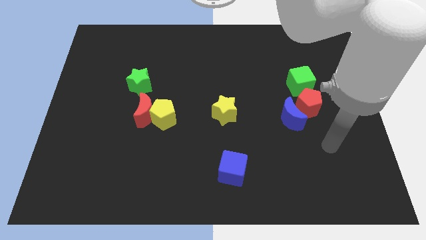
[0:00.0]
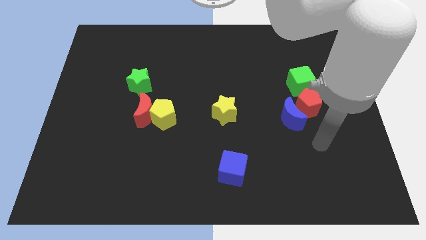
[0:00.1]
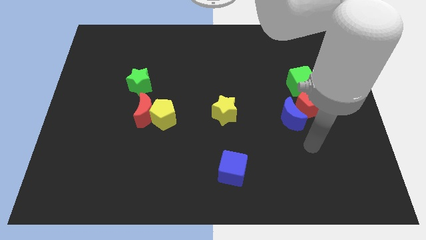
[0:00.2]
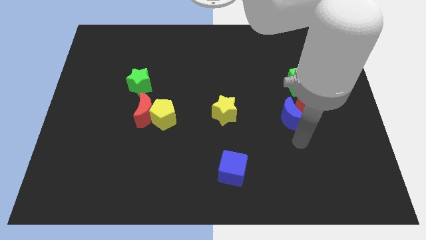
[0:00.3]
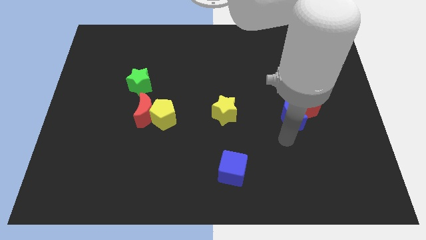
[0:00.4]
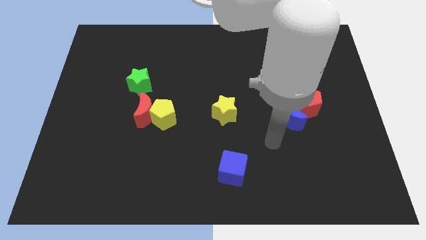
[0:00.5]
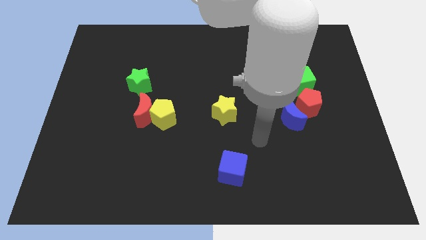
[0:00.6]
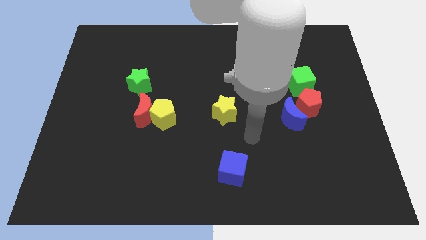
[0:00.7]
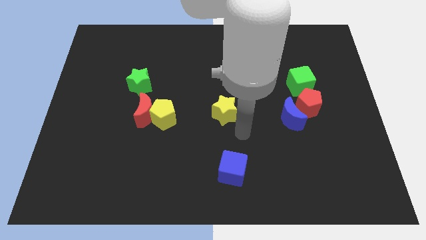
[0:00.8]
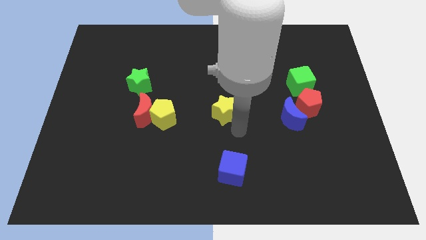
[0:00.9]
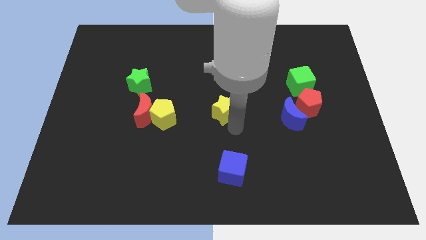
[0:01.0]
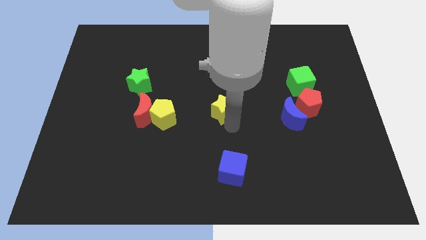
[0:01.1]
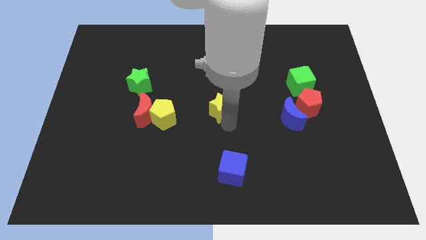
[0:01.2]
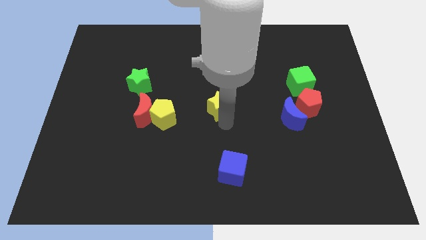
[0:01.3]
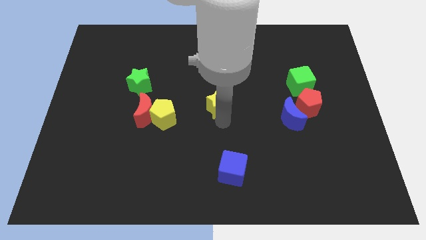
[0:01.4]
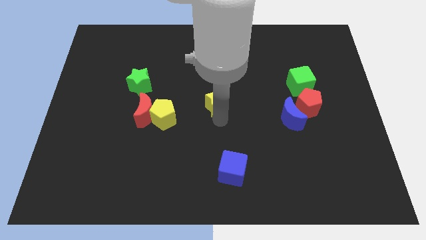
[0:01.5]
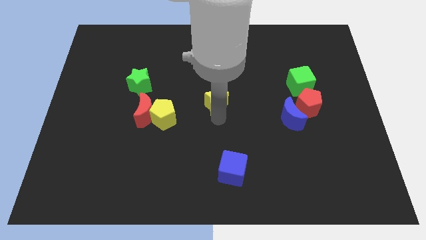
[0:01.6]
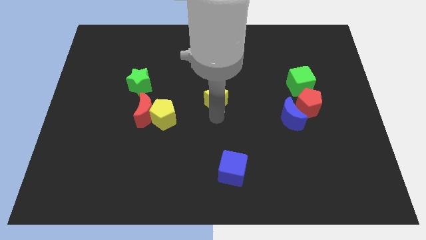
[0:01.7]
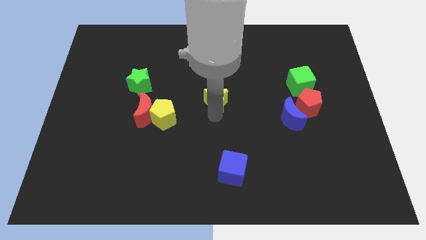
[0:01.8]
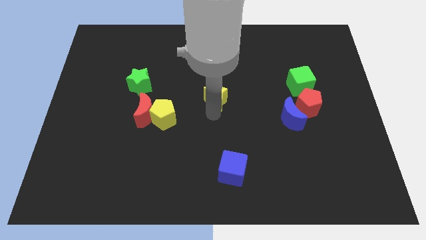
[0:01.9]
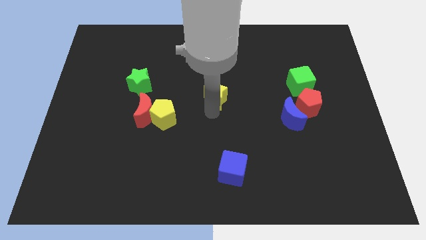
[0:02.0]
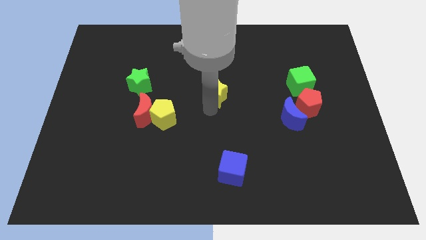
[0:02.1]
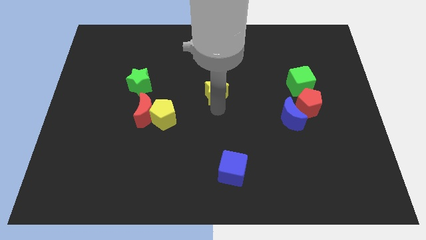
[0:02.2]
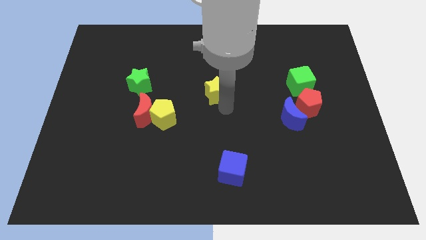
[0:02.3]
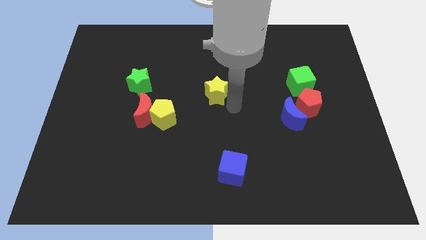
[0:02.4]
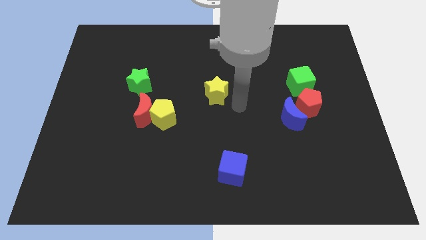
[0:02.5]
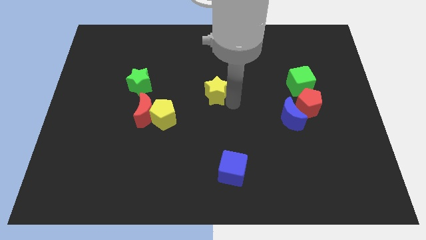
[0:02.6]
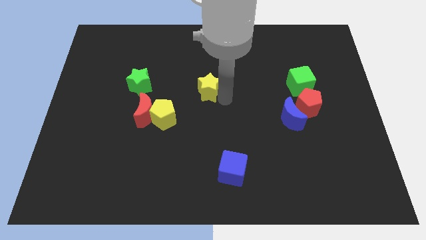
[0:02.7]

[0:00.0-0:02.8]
move the yellow star a little bit diagonally upwards and to the left

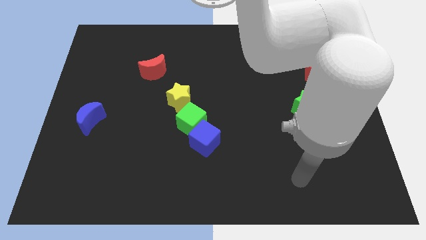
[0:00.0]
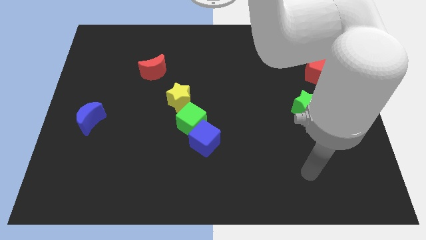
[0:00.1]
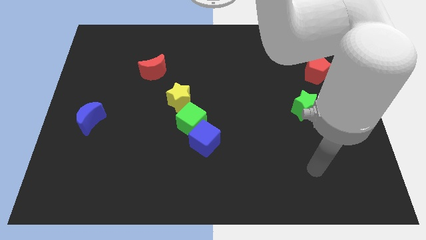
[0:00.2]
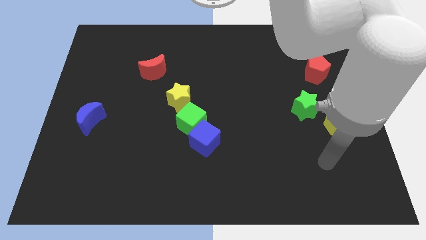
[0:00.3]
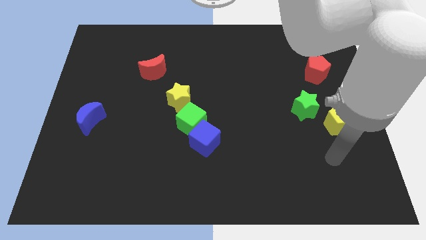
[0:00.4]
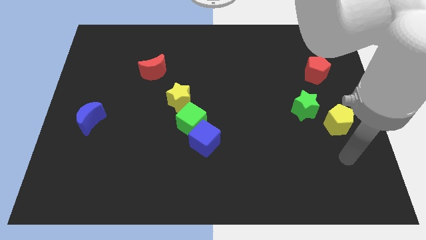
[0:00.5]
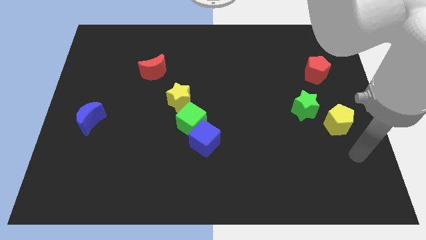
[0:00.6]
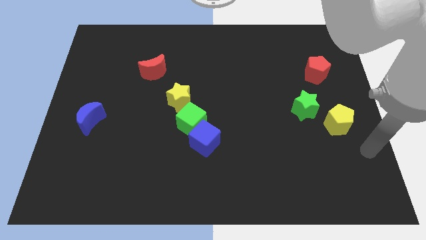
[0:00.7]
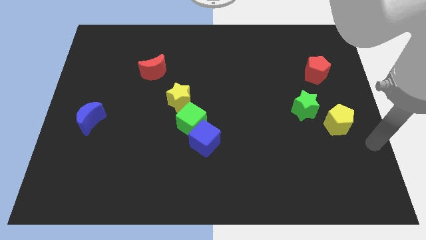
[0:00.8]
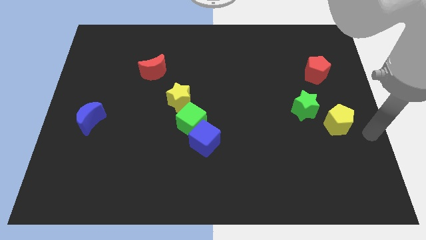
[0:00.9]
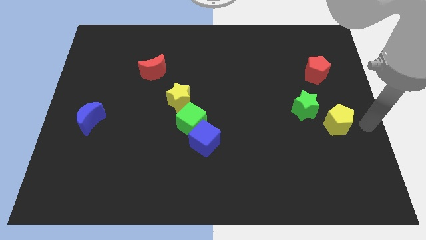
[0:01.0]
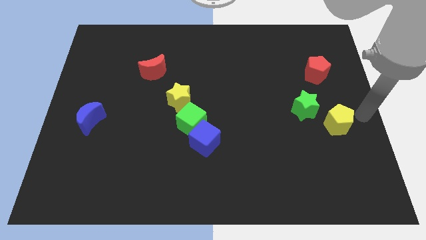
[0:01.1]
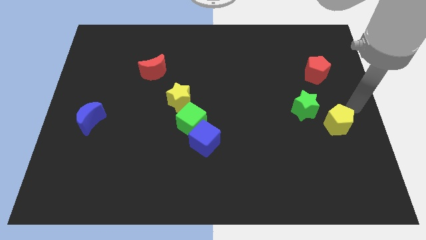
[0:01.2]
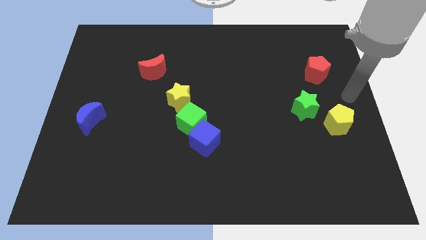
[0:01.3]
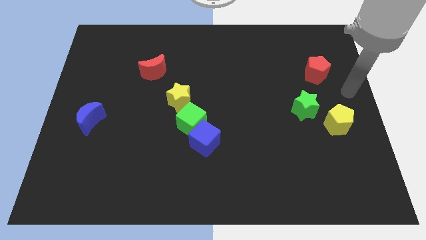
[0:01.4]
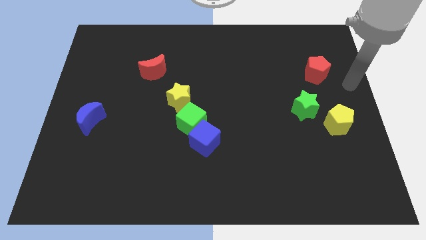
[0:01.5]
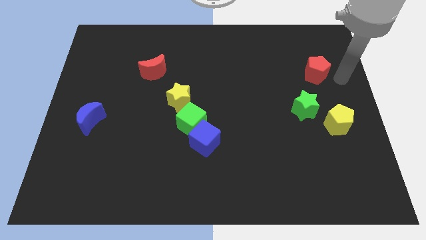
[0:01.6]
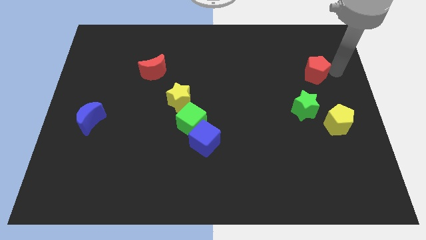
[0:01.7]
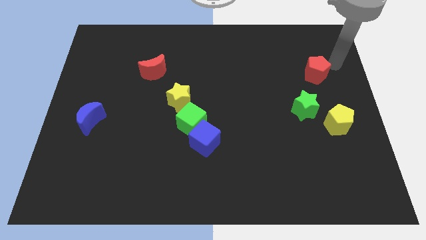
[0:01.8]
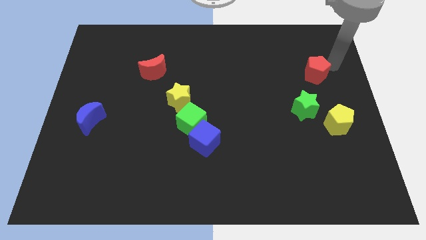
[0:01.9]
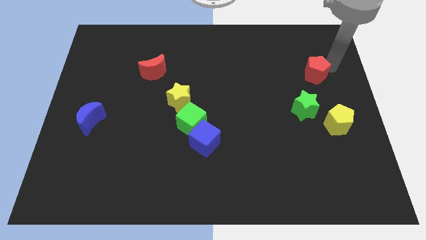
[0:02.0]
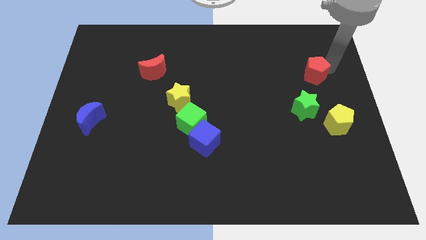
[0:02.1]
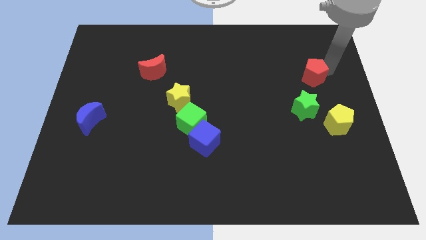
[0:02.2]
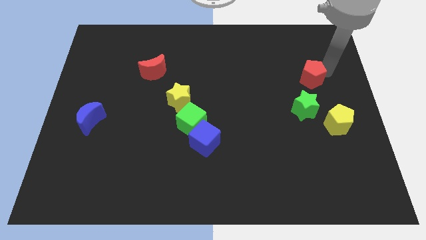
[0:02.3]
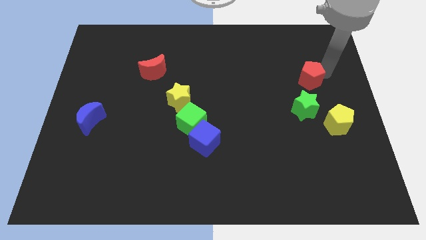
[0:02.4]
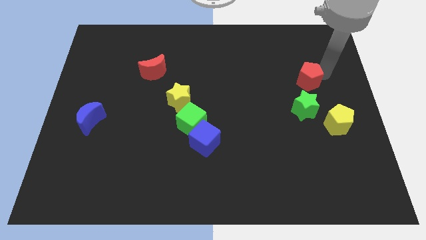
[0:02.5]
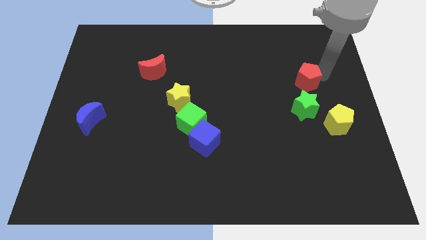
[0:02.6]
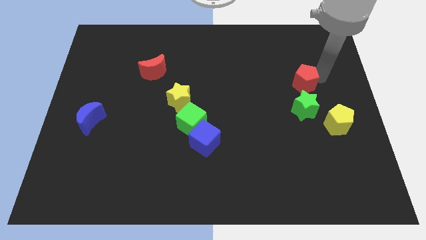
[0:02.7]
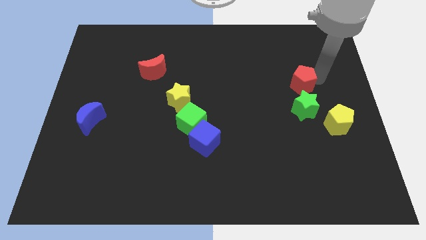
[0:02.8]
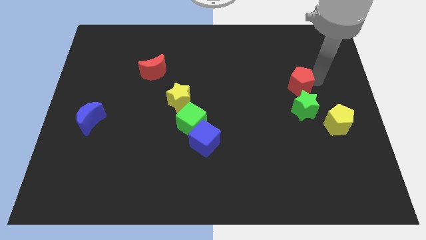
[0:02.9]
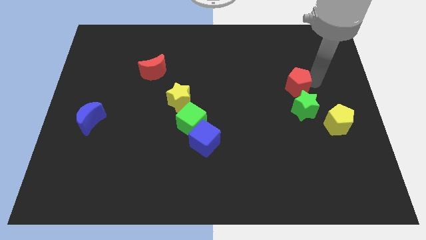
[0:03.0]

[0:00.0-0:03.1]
move the red pentagon diagonally downwards and to the left a little bit

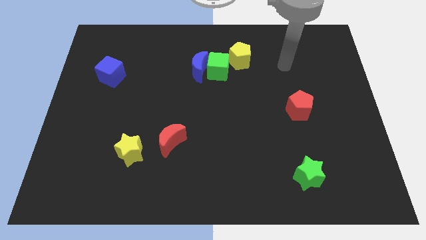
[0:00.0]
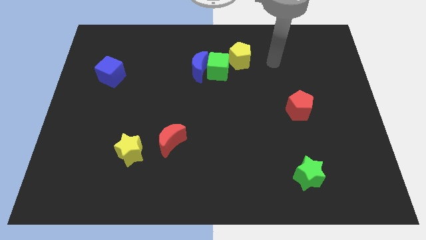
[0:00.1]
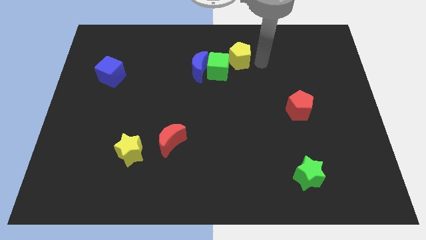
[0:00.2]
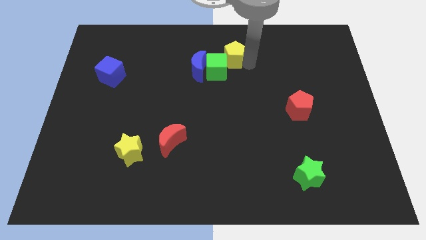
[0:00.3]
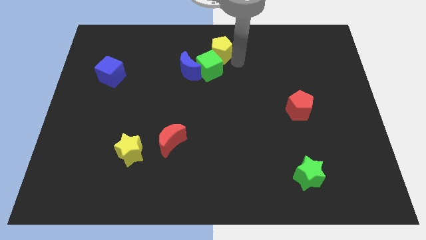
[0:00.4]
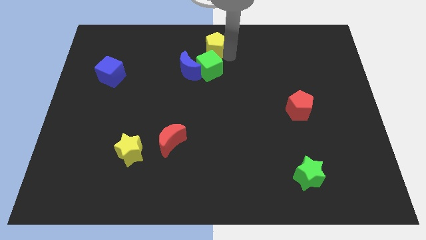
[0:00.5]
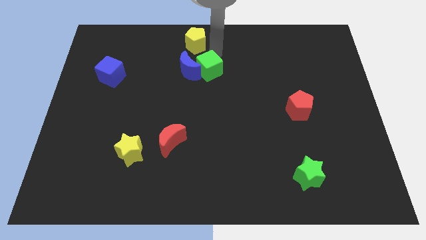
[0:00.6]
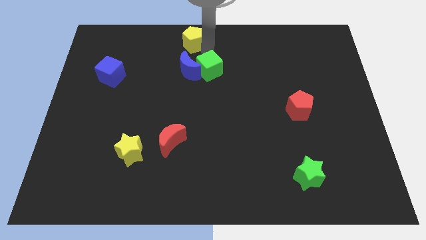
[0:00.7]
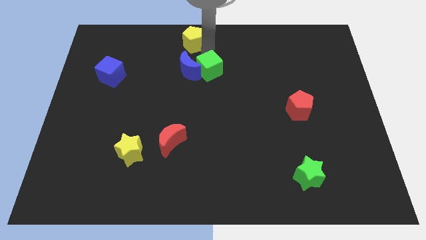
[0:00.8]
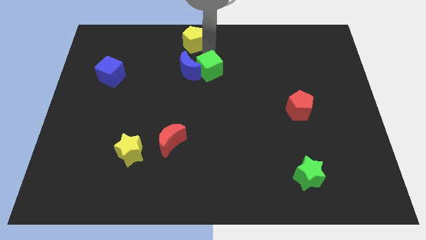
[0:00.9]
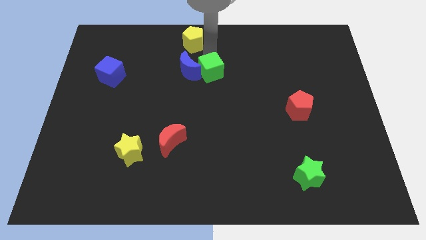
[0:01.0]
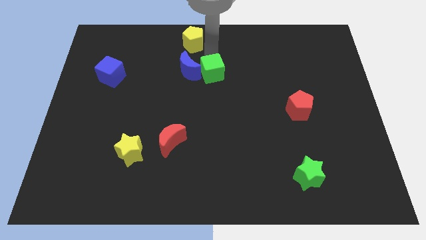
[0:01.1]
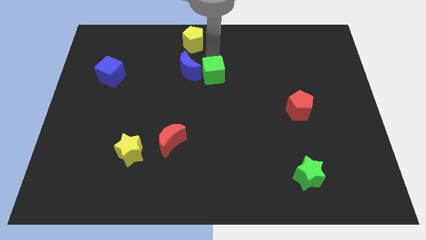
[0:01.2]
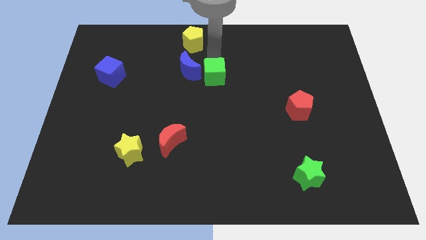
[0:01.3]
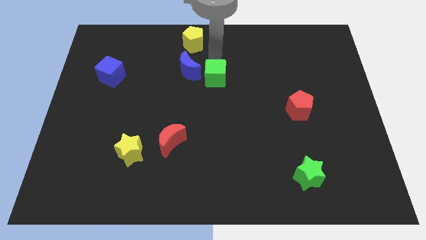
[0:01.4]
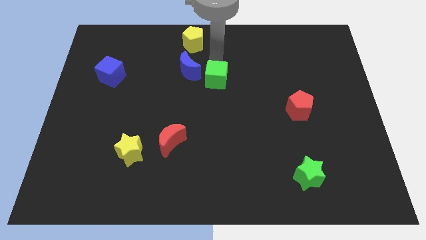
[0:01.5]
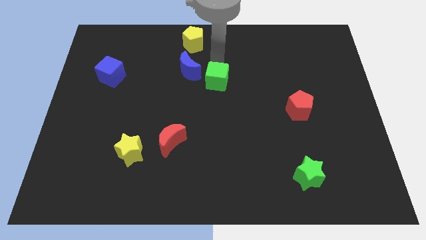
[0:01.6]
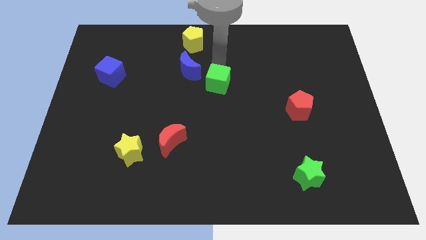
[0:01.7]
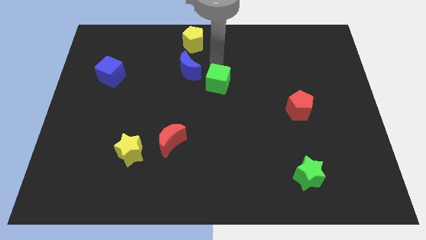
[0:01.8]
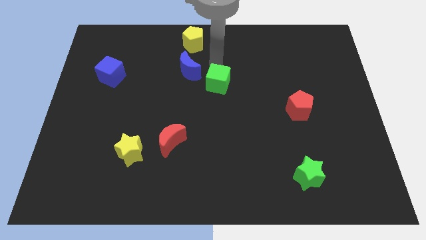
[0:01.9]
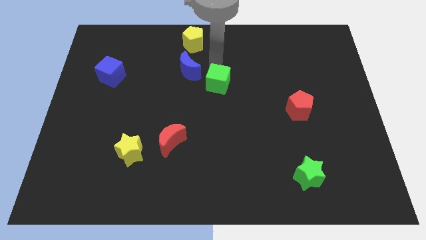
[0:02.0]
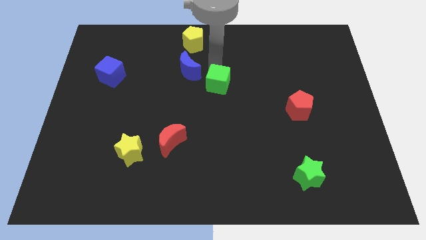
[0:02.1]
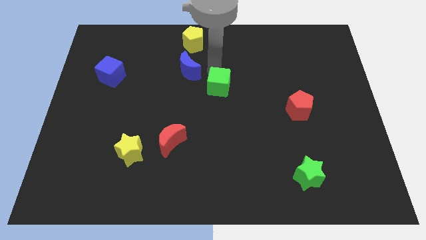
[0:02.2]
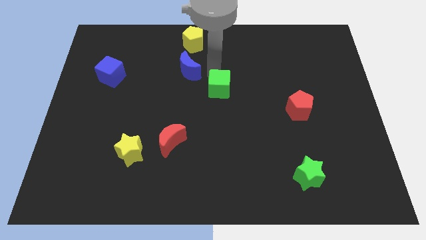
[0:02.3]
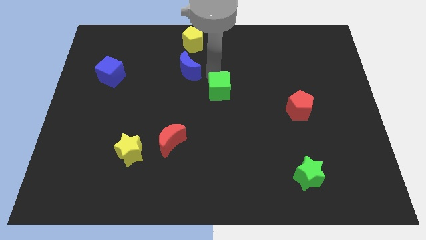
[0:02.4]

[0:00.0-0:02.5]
push the green cube downwards a little bit

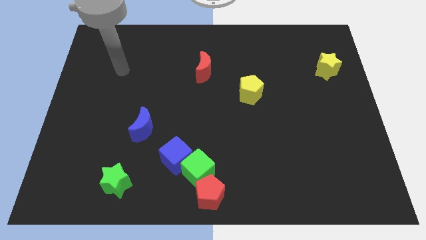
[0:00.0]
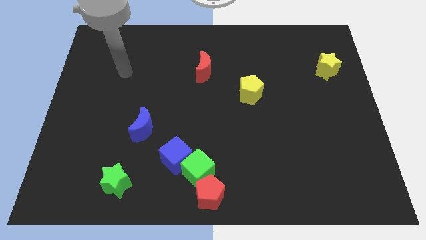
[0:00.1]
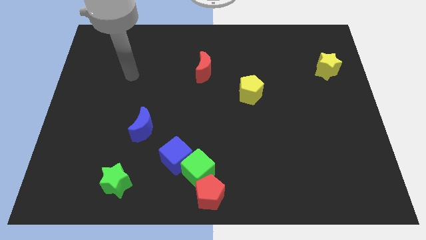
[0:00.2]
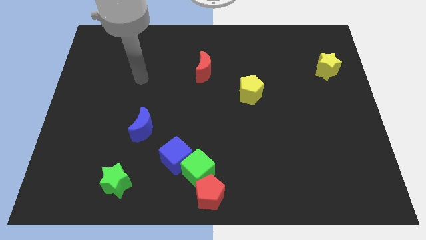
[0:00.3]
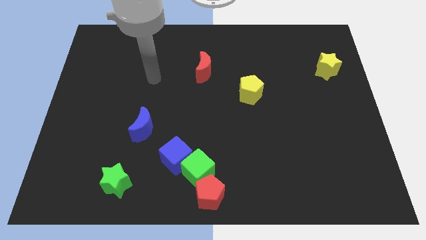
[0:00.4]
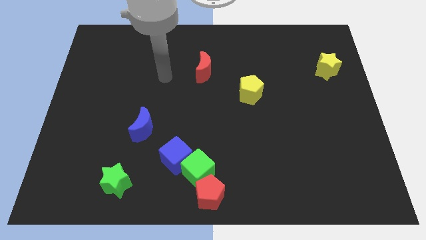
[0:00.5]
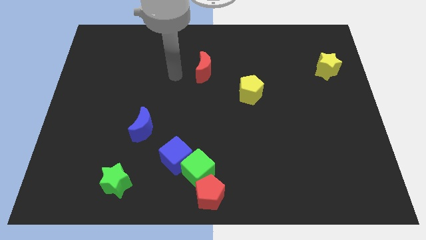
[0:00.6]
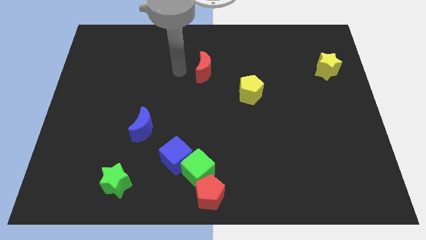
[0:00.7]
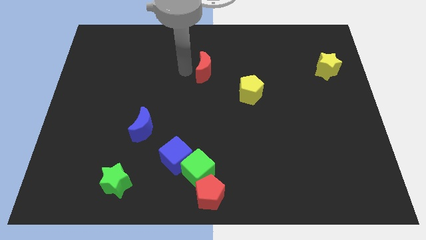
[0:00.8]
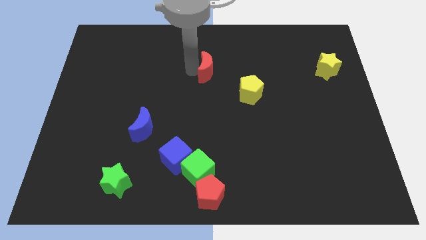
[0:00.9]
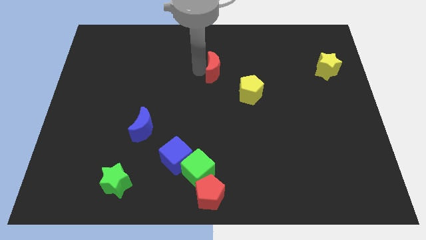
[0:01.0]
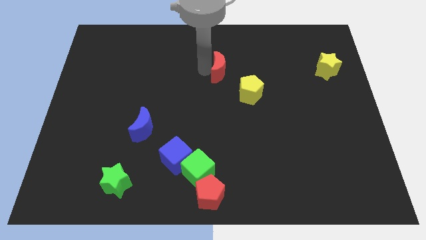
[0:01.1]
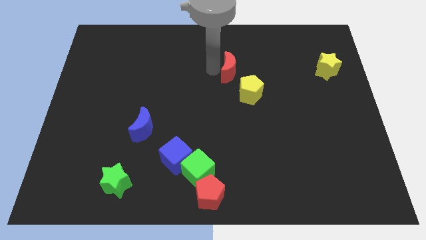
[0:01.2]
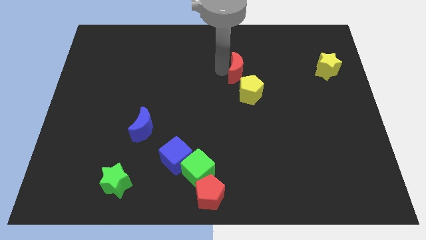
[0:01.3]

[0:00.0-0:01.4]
slightly slide the red moon right
